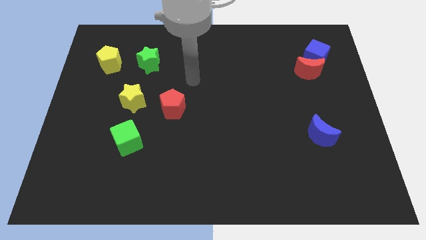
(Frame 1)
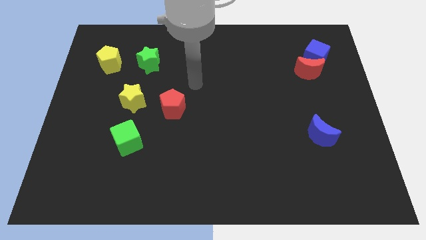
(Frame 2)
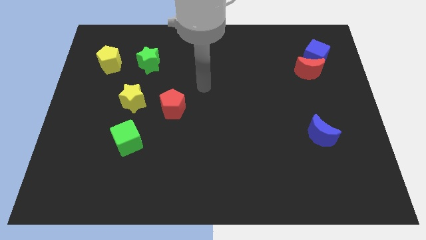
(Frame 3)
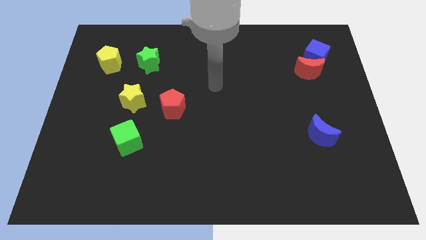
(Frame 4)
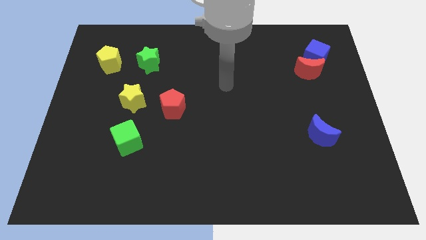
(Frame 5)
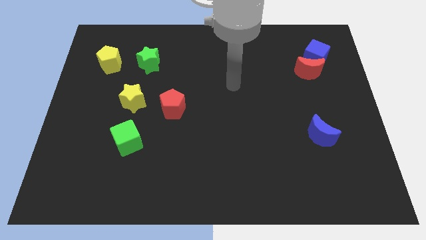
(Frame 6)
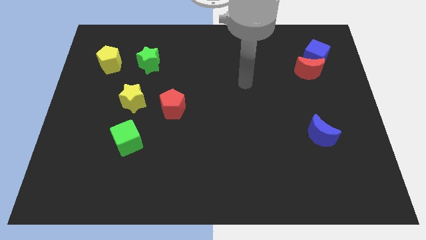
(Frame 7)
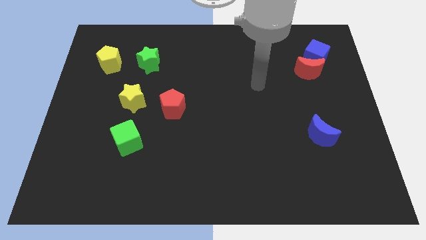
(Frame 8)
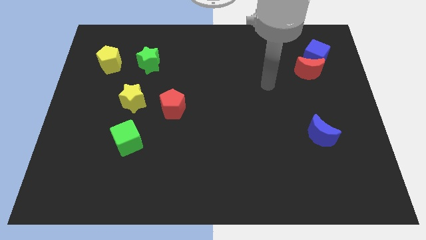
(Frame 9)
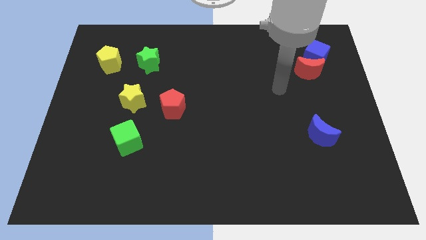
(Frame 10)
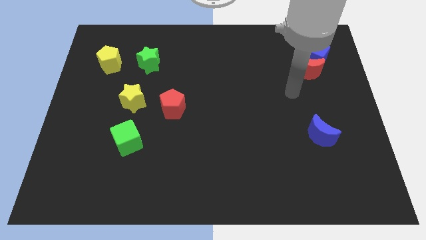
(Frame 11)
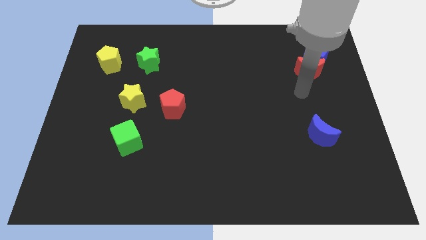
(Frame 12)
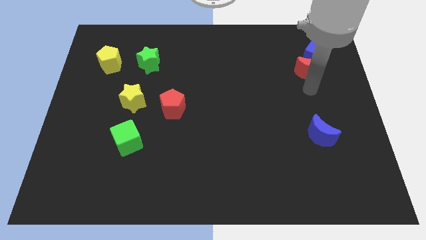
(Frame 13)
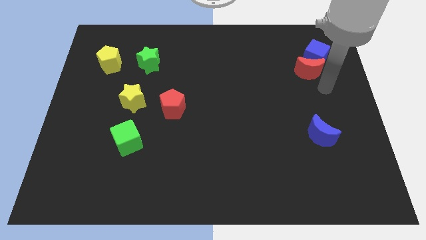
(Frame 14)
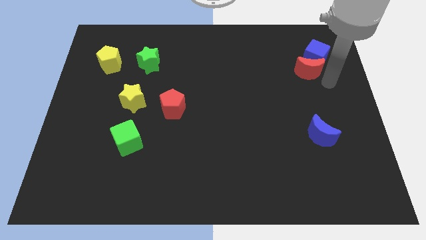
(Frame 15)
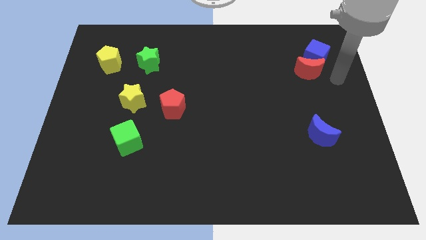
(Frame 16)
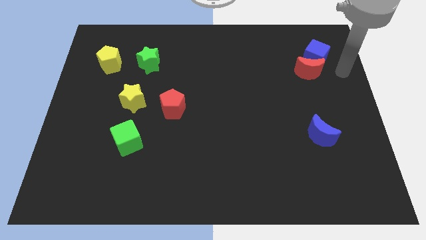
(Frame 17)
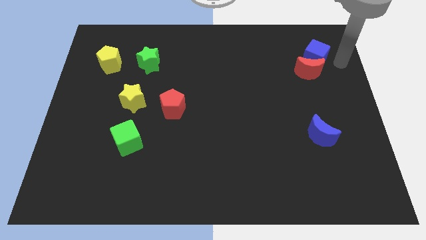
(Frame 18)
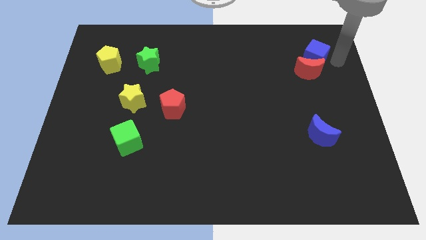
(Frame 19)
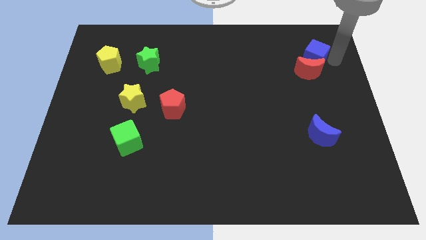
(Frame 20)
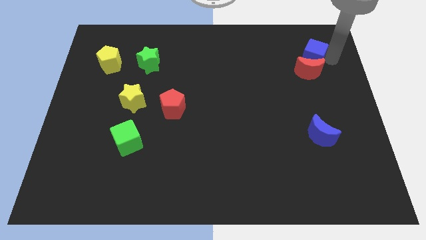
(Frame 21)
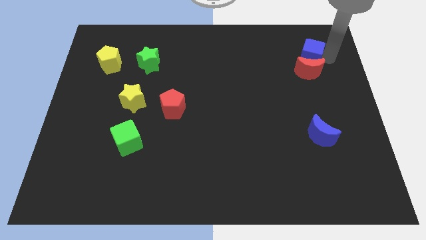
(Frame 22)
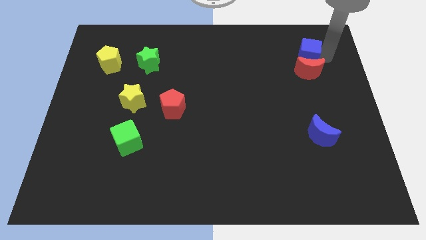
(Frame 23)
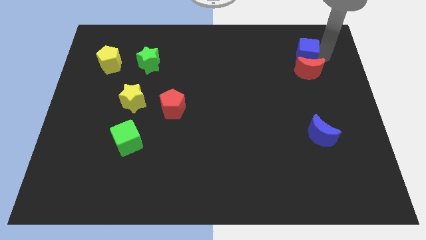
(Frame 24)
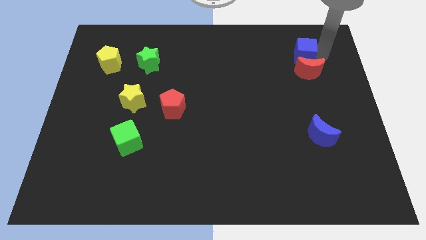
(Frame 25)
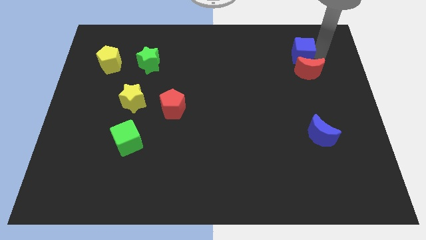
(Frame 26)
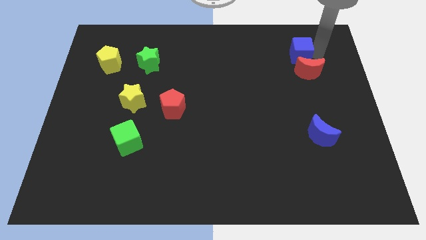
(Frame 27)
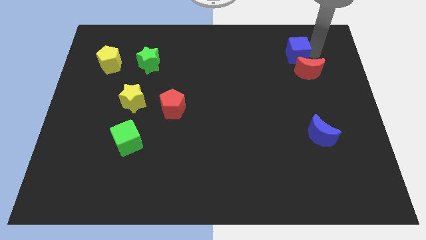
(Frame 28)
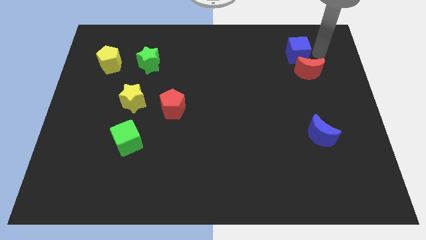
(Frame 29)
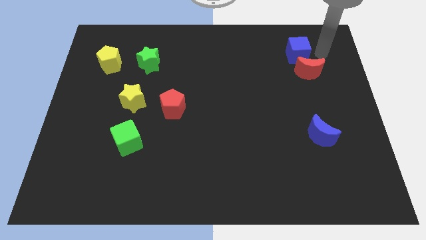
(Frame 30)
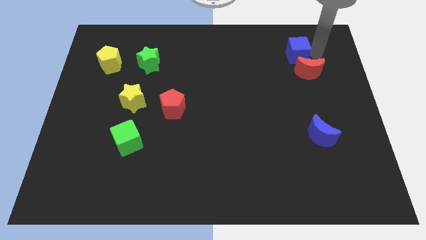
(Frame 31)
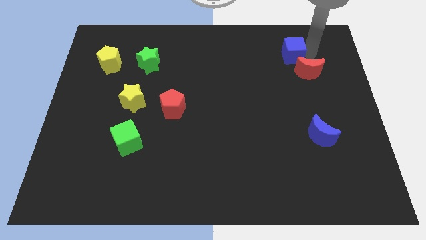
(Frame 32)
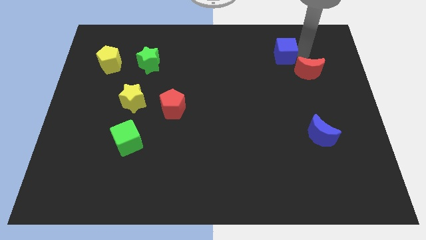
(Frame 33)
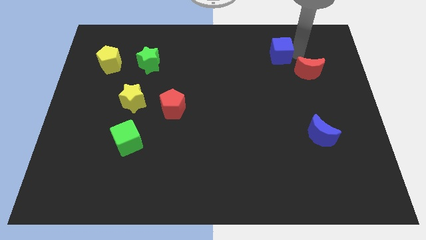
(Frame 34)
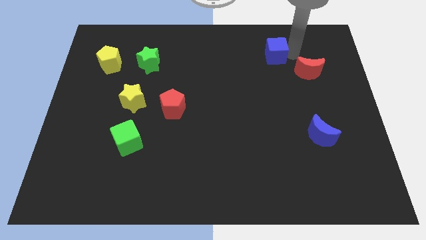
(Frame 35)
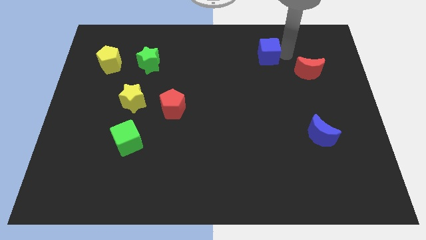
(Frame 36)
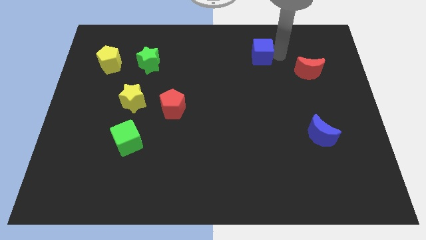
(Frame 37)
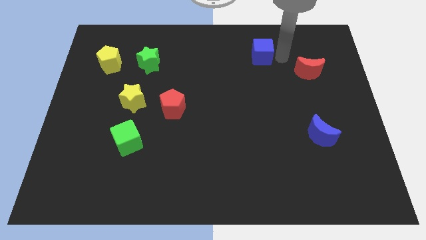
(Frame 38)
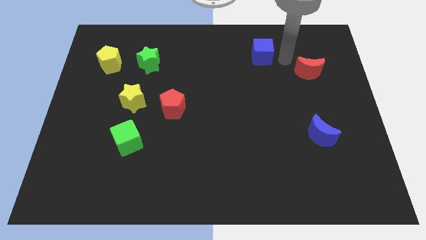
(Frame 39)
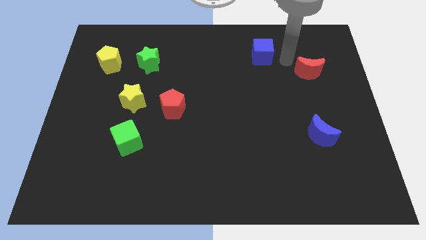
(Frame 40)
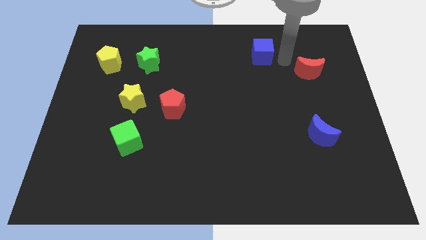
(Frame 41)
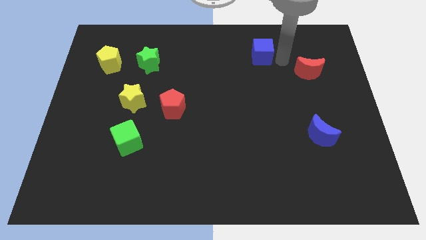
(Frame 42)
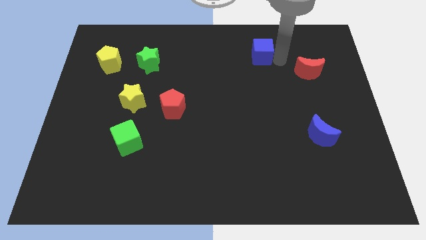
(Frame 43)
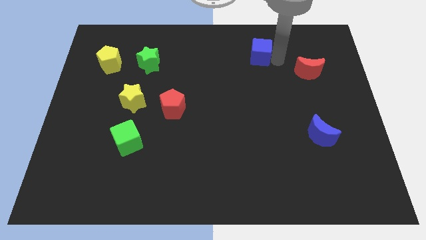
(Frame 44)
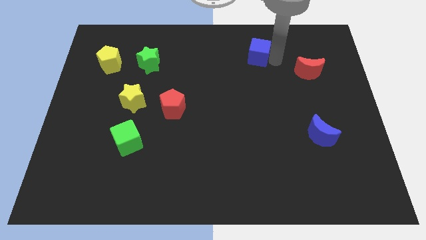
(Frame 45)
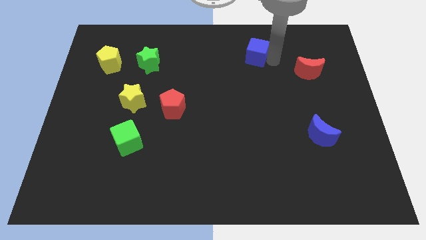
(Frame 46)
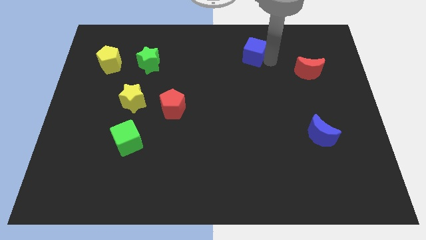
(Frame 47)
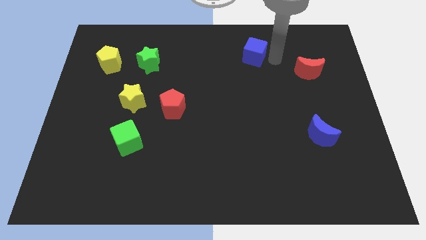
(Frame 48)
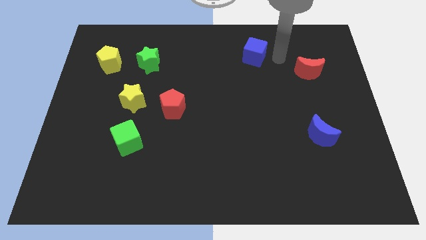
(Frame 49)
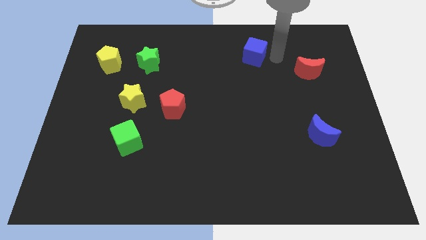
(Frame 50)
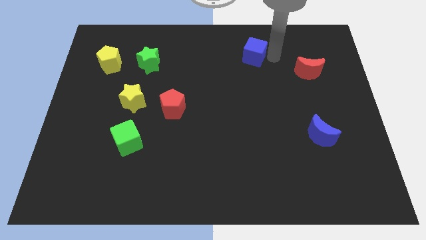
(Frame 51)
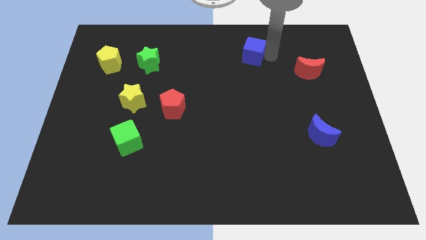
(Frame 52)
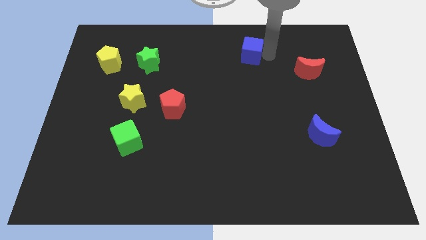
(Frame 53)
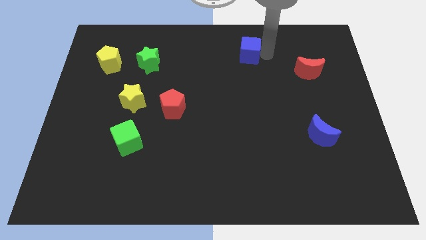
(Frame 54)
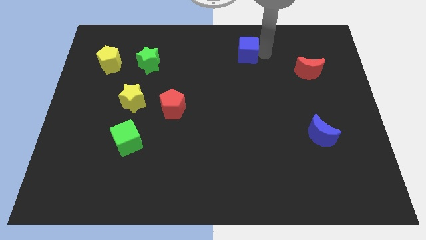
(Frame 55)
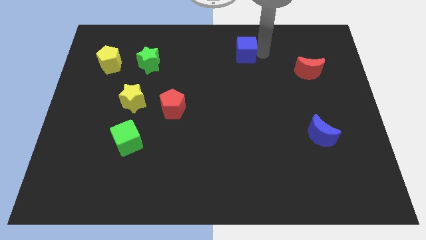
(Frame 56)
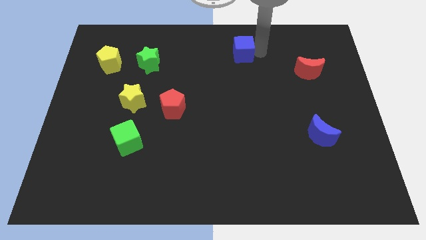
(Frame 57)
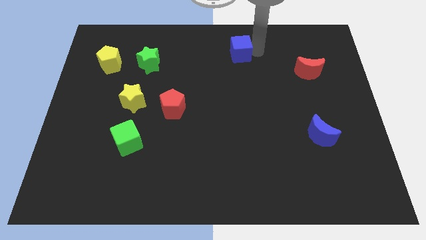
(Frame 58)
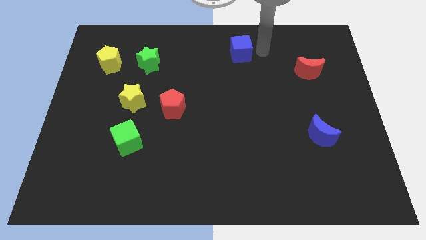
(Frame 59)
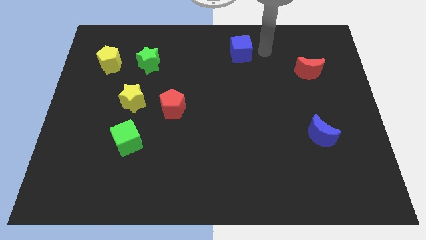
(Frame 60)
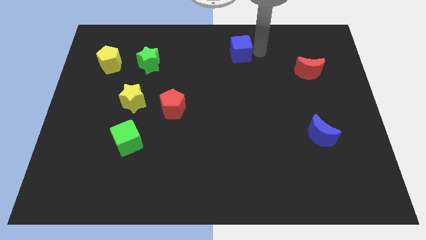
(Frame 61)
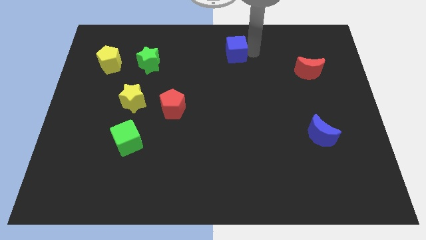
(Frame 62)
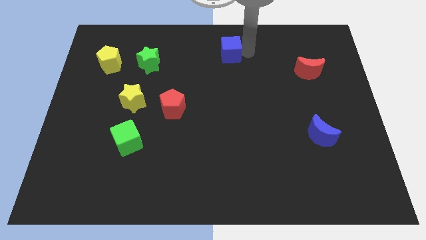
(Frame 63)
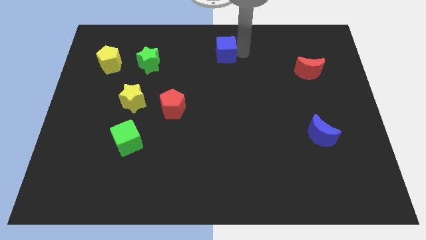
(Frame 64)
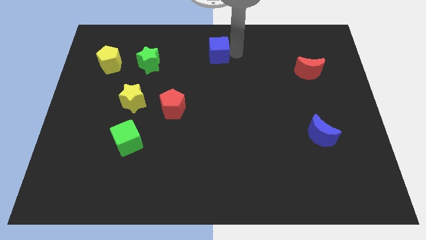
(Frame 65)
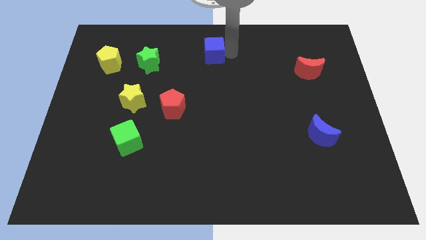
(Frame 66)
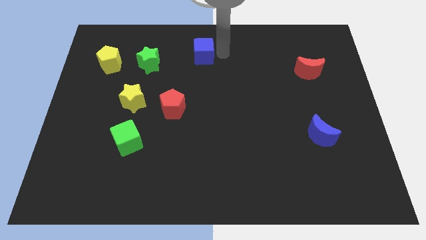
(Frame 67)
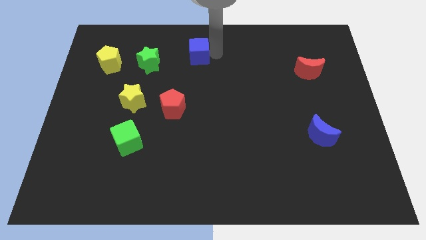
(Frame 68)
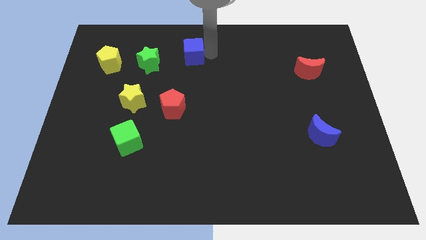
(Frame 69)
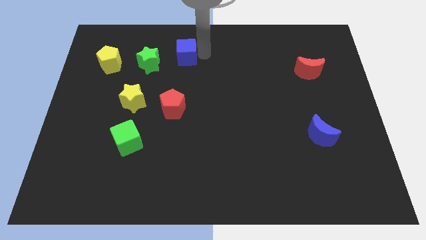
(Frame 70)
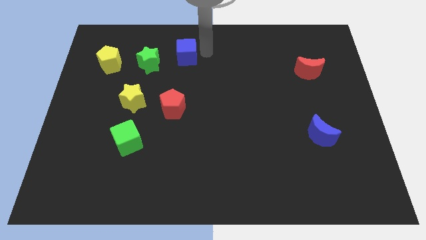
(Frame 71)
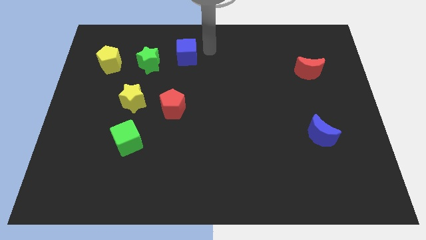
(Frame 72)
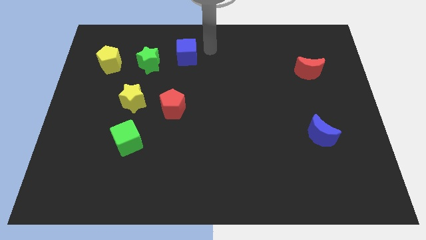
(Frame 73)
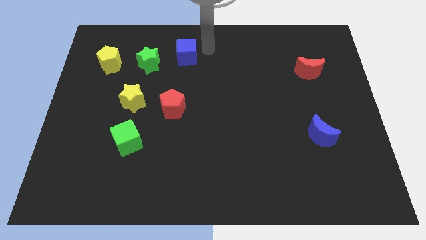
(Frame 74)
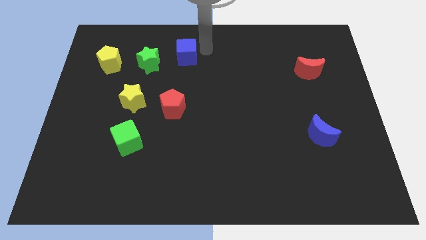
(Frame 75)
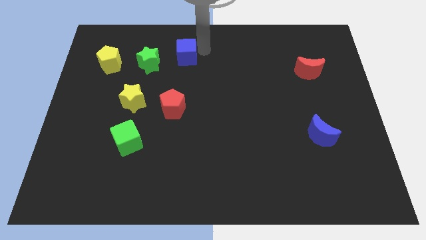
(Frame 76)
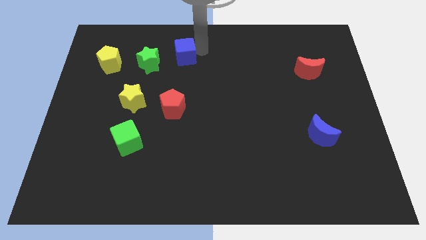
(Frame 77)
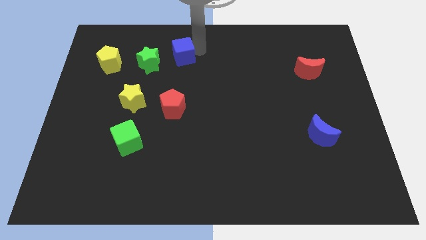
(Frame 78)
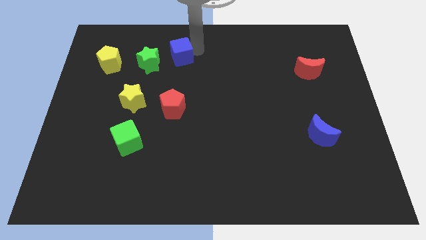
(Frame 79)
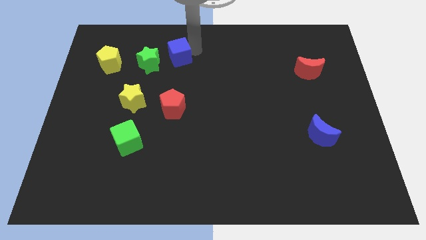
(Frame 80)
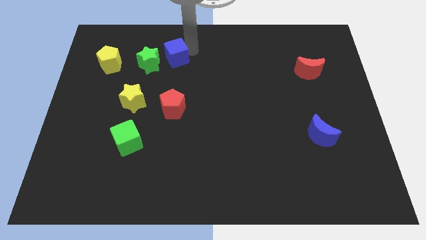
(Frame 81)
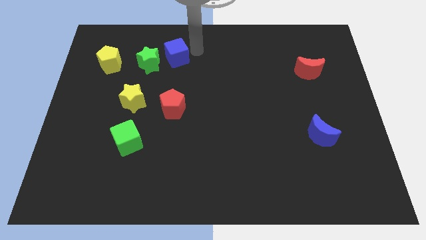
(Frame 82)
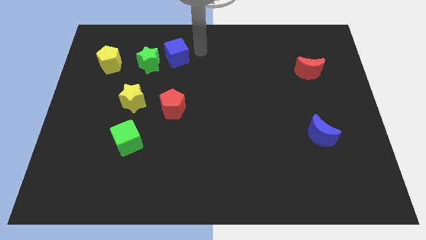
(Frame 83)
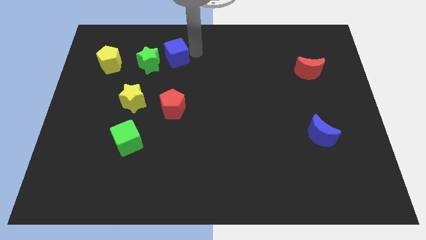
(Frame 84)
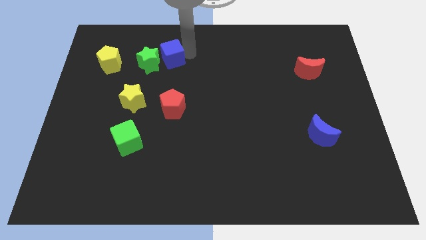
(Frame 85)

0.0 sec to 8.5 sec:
put the blue cube next to the green star
